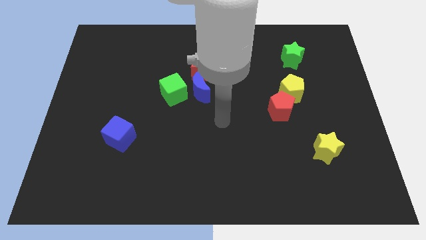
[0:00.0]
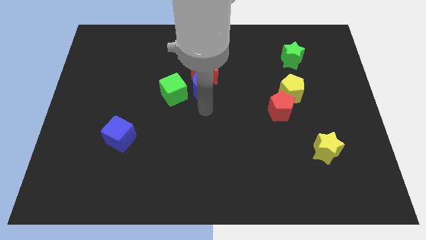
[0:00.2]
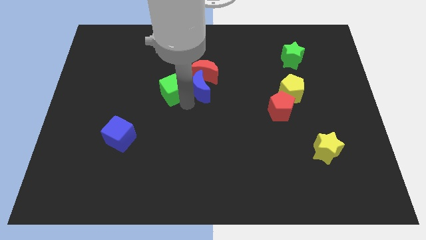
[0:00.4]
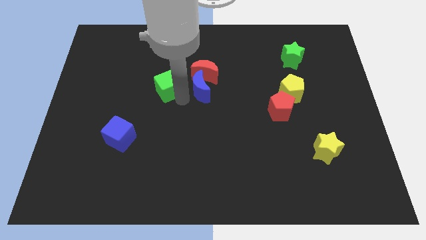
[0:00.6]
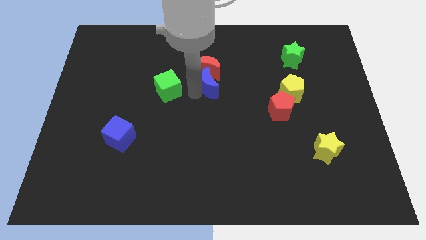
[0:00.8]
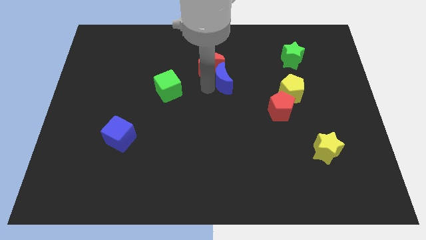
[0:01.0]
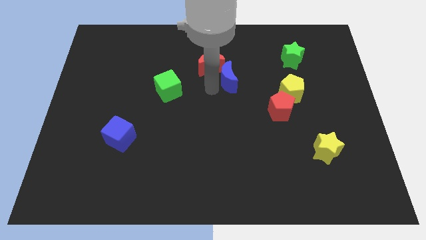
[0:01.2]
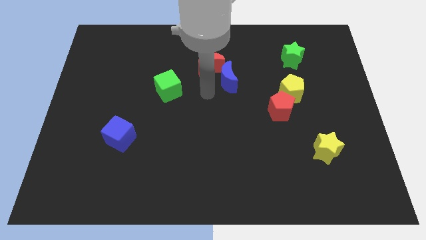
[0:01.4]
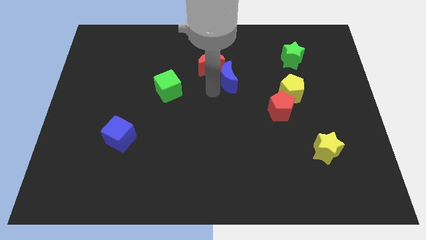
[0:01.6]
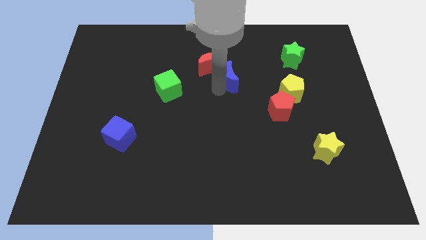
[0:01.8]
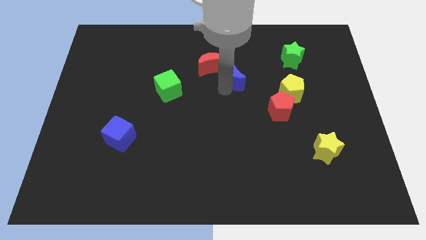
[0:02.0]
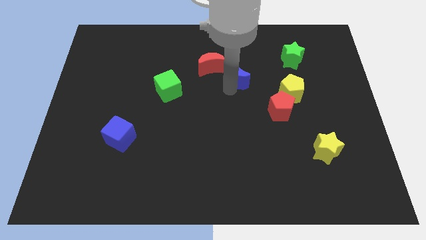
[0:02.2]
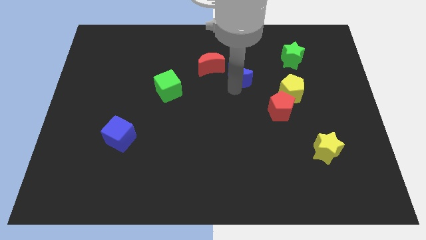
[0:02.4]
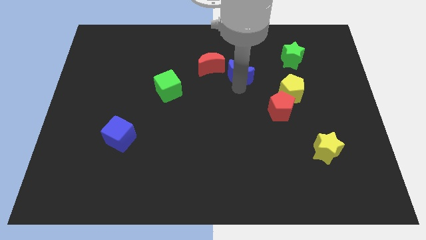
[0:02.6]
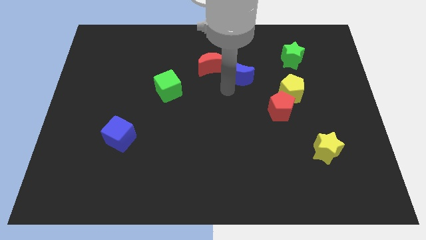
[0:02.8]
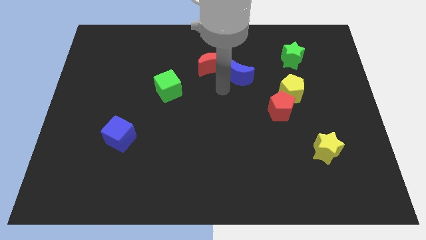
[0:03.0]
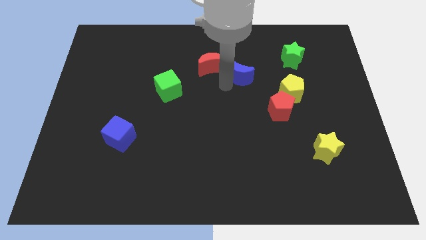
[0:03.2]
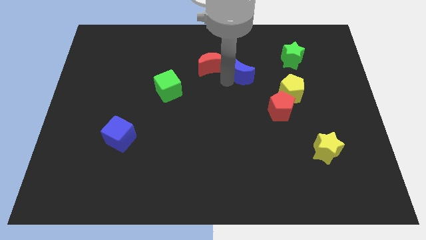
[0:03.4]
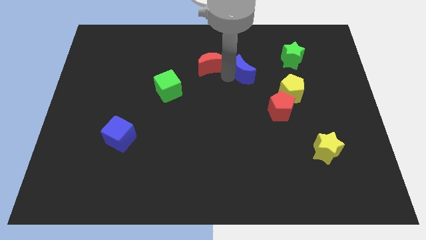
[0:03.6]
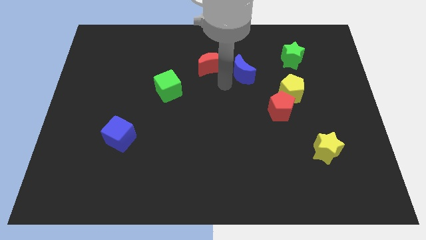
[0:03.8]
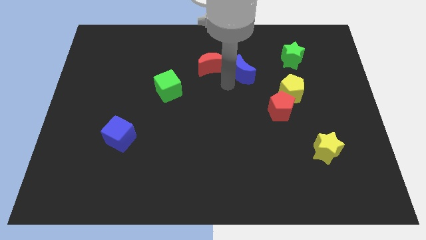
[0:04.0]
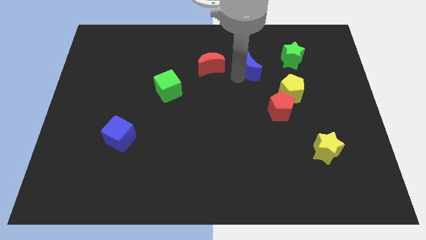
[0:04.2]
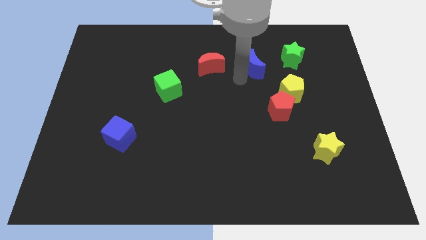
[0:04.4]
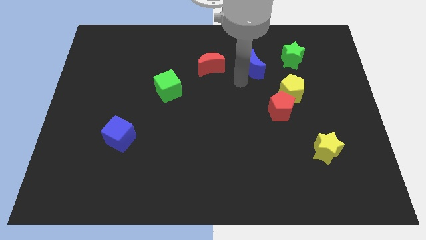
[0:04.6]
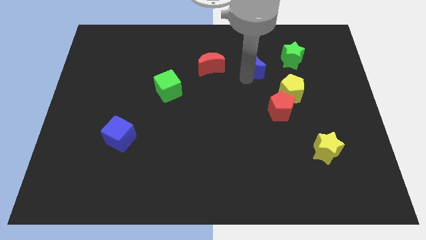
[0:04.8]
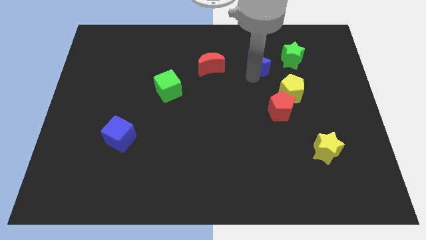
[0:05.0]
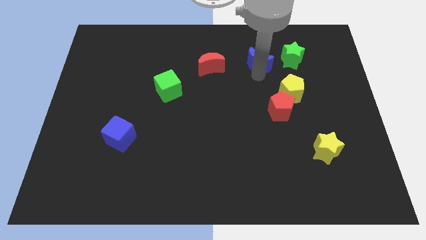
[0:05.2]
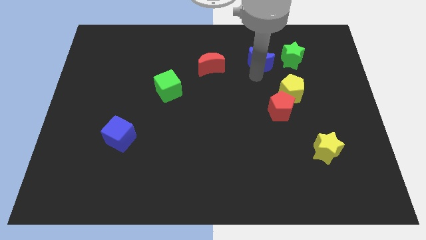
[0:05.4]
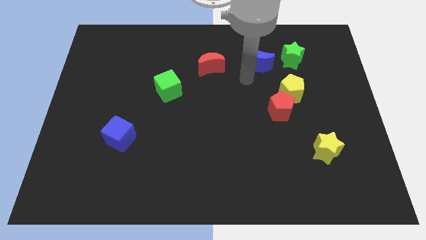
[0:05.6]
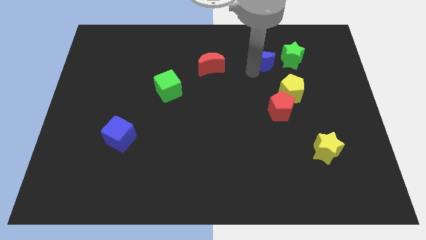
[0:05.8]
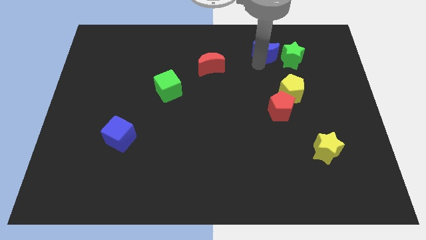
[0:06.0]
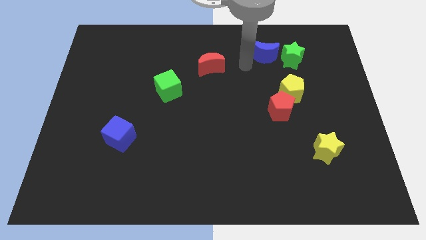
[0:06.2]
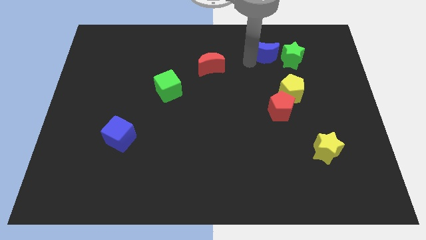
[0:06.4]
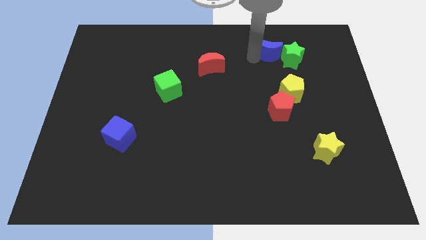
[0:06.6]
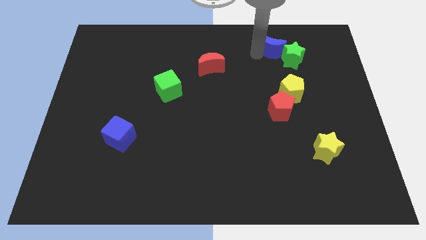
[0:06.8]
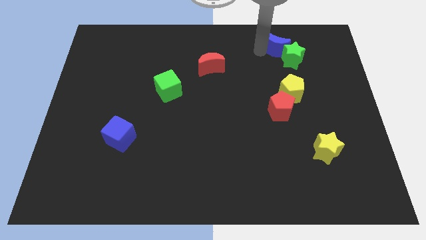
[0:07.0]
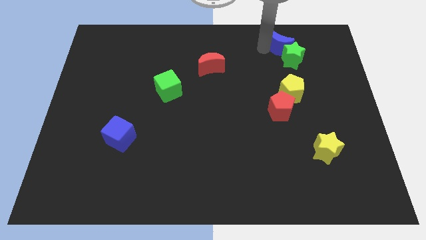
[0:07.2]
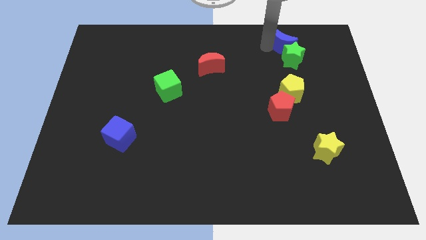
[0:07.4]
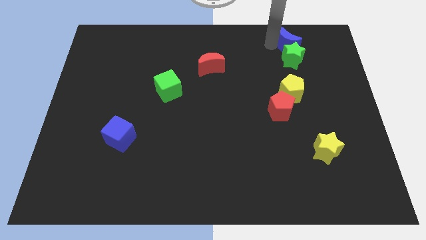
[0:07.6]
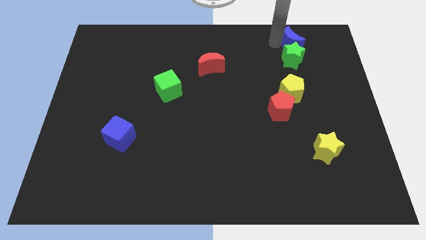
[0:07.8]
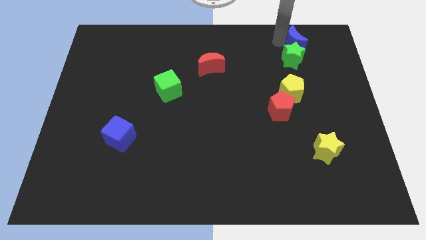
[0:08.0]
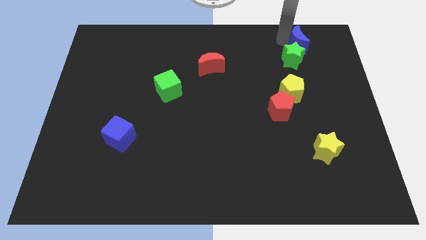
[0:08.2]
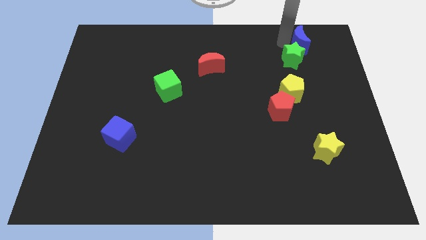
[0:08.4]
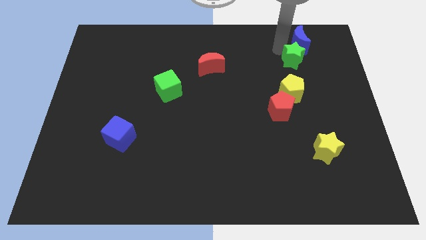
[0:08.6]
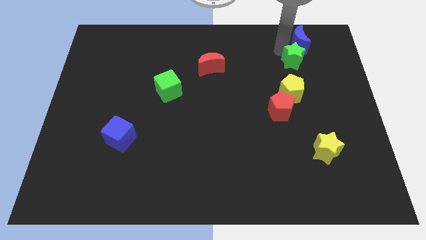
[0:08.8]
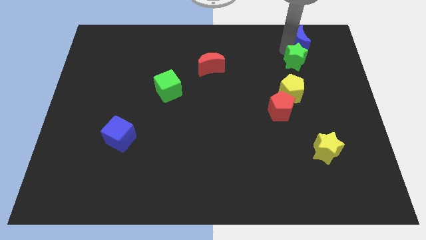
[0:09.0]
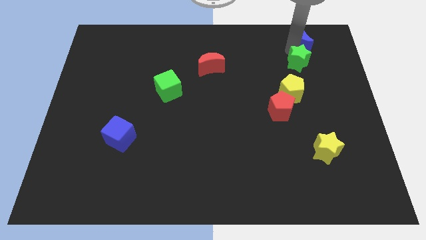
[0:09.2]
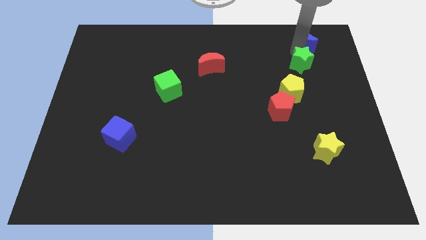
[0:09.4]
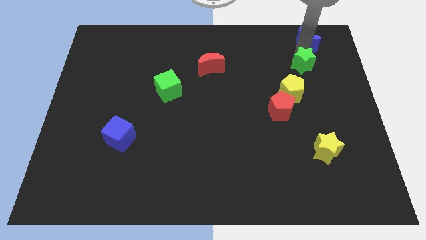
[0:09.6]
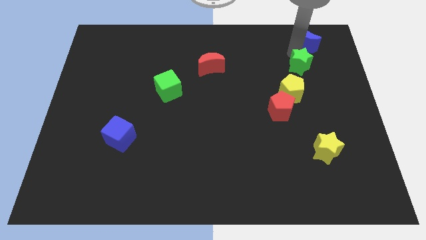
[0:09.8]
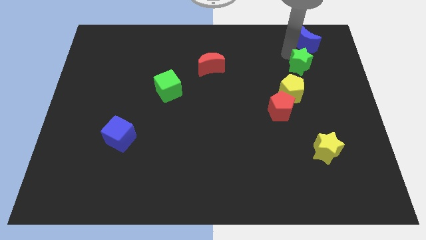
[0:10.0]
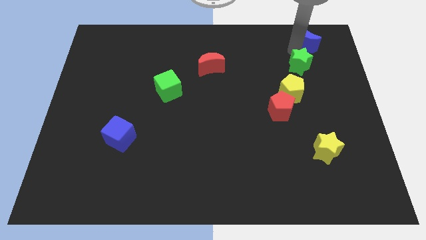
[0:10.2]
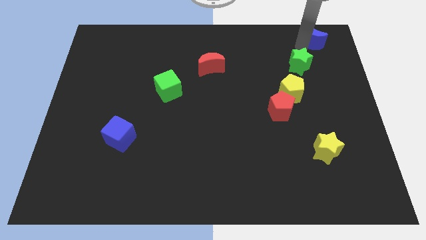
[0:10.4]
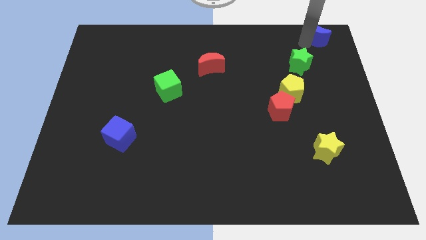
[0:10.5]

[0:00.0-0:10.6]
push the blue moon to the top right corner

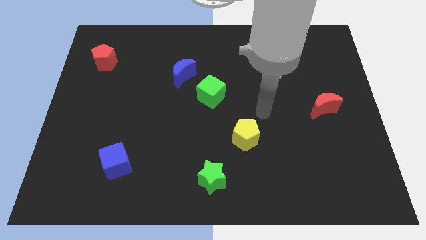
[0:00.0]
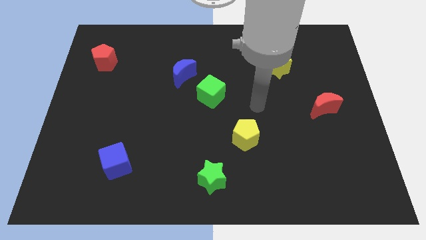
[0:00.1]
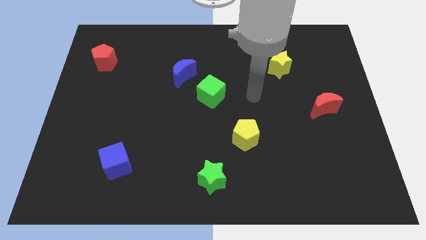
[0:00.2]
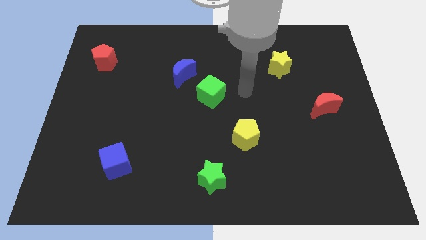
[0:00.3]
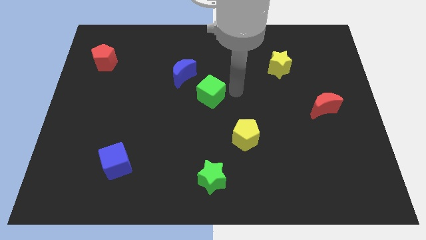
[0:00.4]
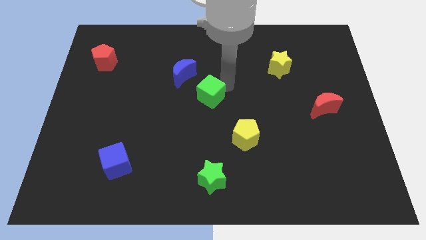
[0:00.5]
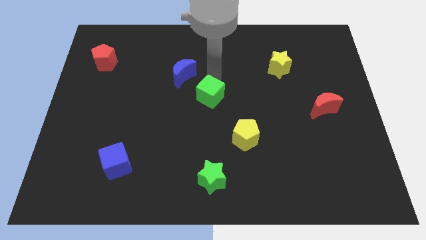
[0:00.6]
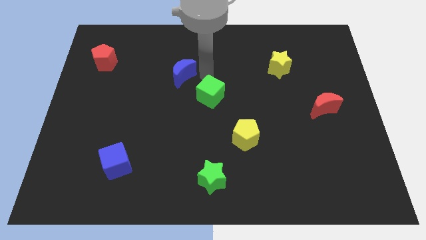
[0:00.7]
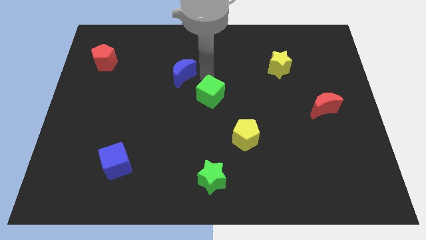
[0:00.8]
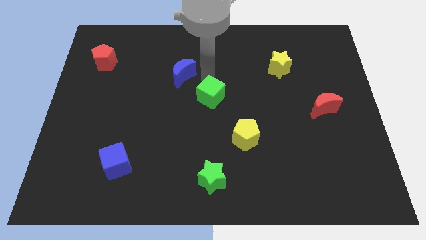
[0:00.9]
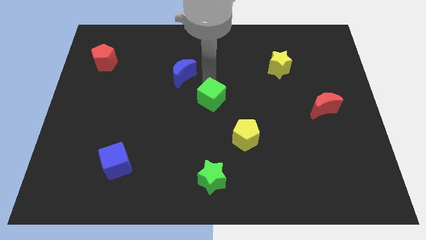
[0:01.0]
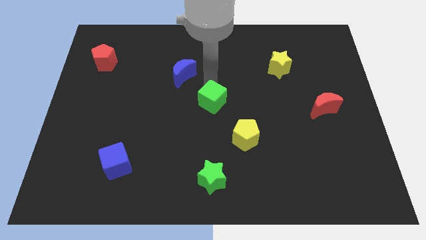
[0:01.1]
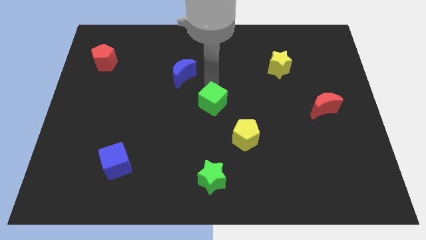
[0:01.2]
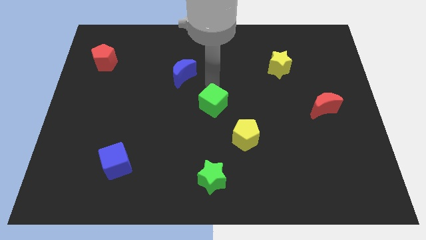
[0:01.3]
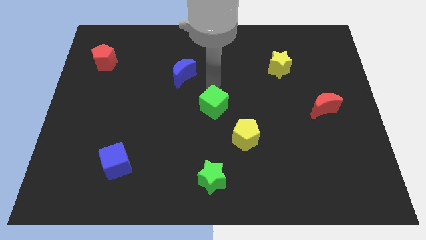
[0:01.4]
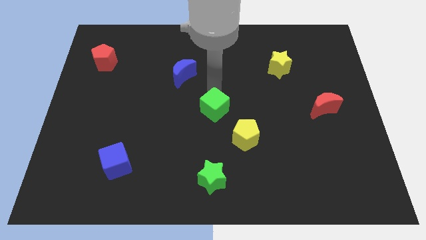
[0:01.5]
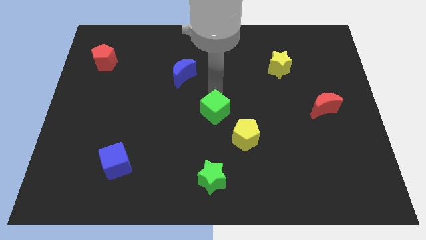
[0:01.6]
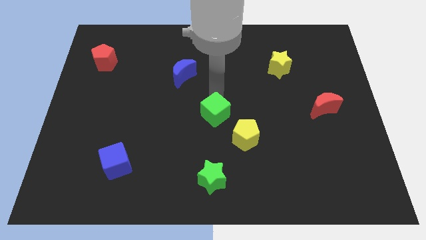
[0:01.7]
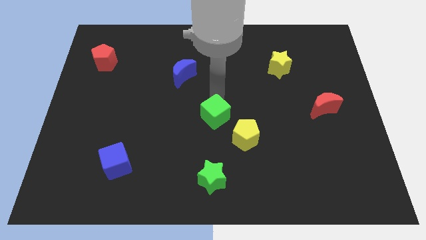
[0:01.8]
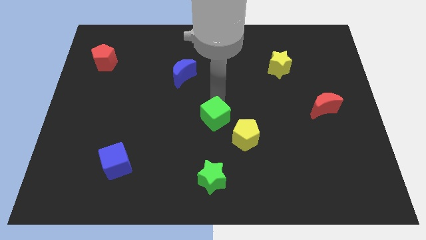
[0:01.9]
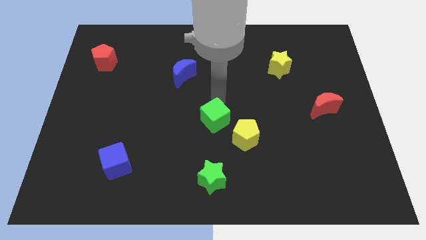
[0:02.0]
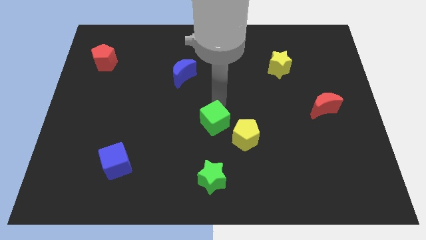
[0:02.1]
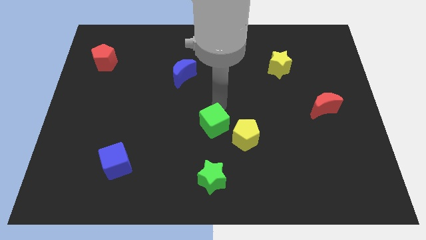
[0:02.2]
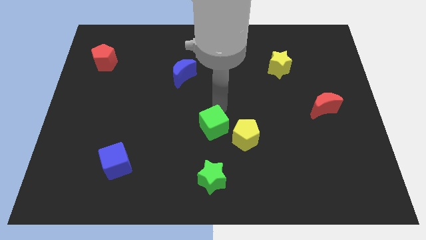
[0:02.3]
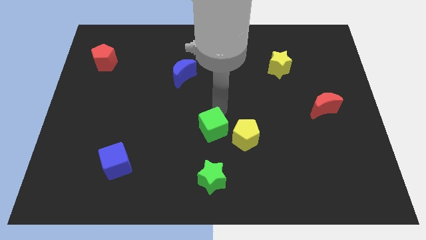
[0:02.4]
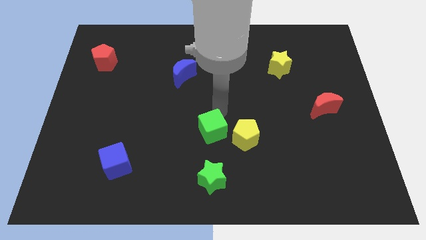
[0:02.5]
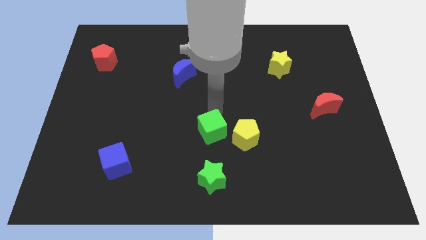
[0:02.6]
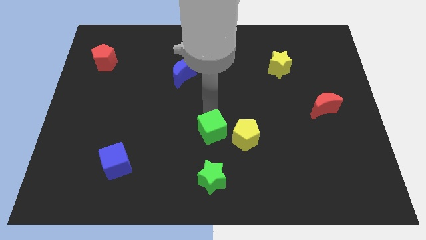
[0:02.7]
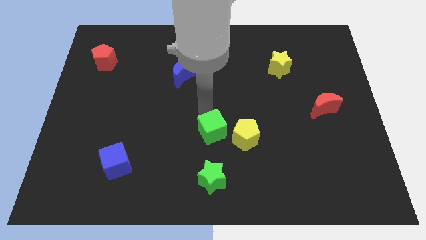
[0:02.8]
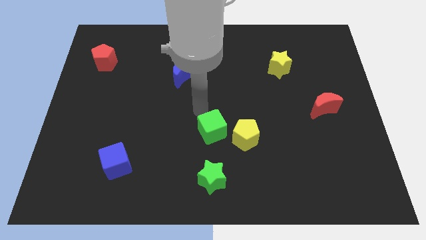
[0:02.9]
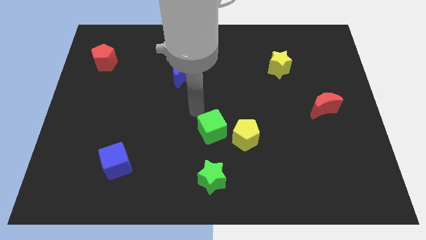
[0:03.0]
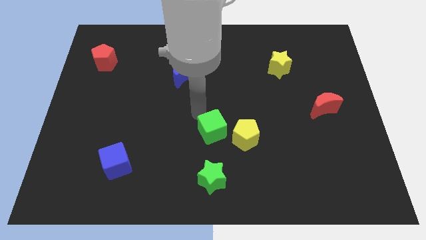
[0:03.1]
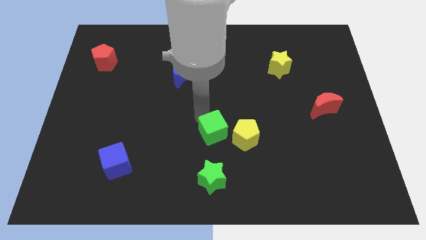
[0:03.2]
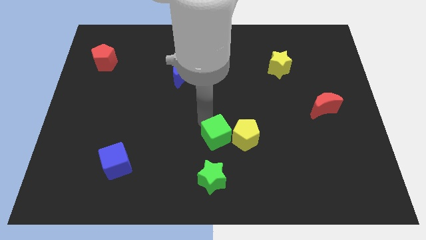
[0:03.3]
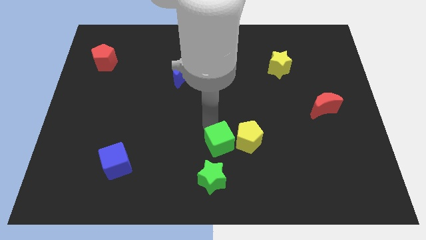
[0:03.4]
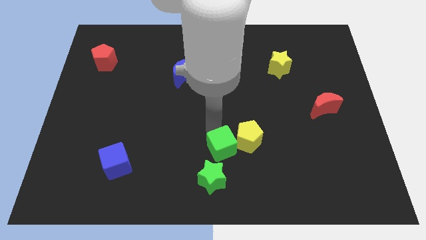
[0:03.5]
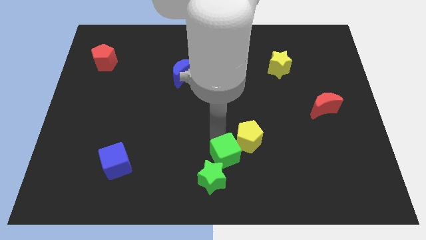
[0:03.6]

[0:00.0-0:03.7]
move the green cube to the bottom side
